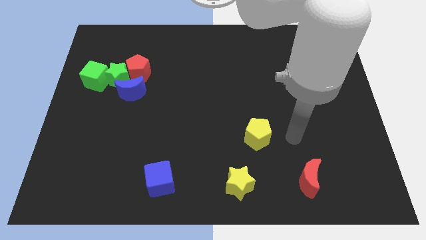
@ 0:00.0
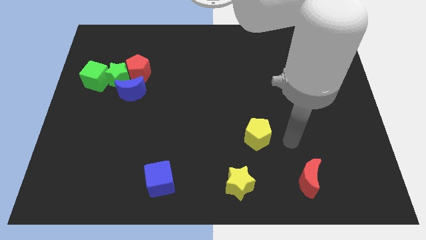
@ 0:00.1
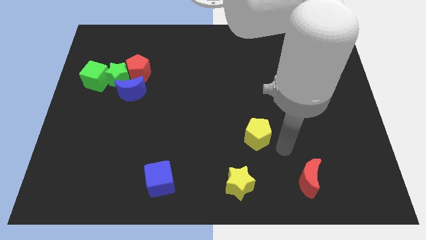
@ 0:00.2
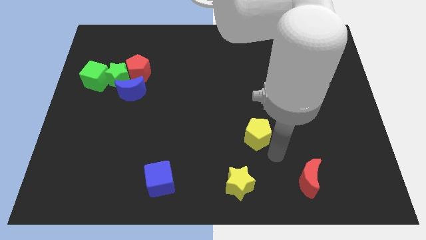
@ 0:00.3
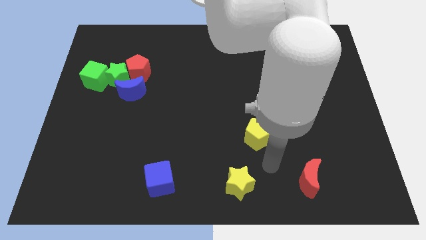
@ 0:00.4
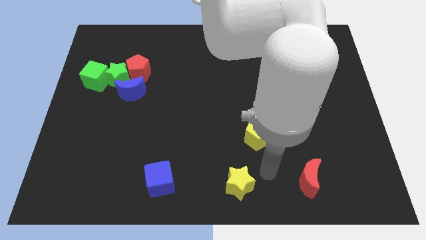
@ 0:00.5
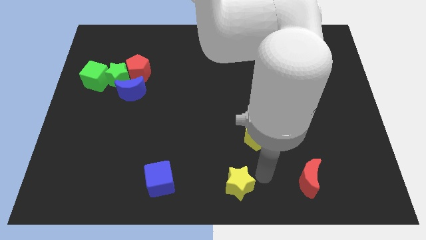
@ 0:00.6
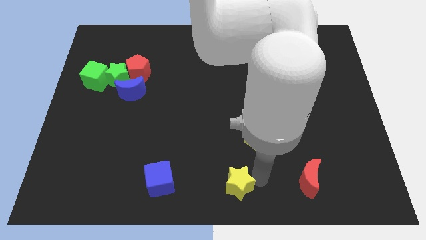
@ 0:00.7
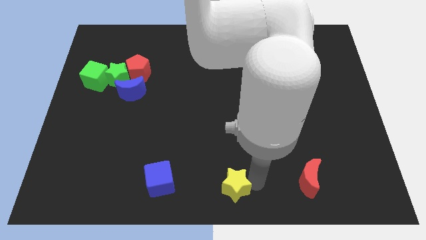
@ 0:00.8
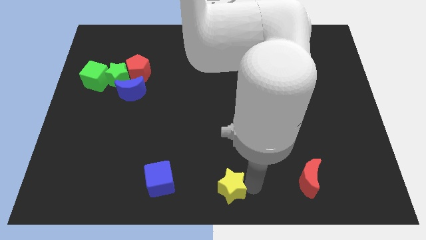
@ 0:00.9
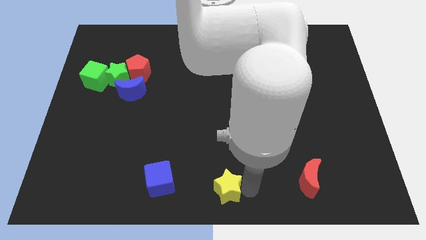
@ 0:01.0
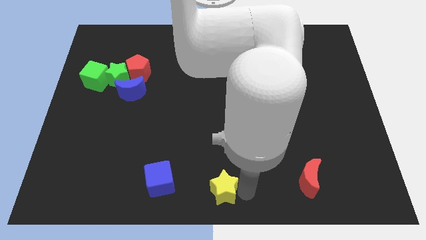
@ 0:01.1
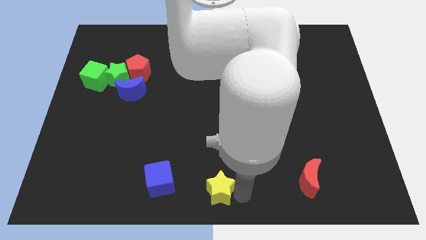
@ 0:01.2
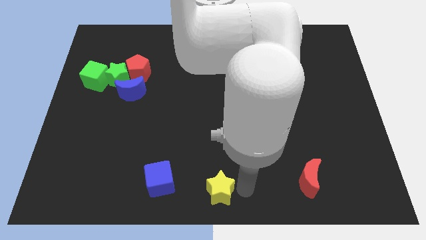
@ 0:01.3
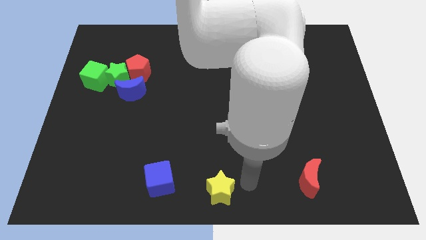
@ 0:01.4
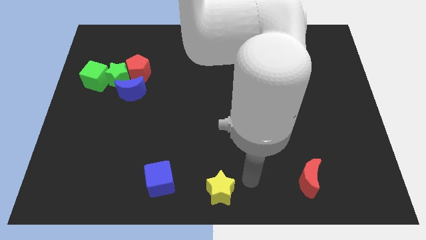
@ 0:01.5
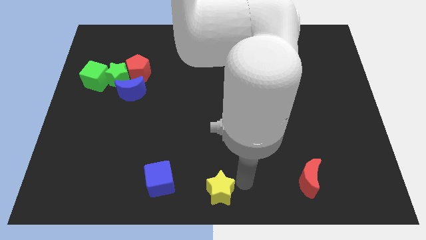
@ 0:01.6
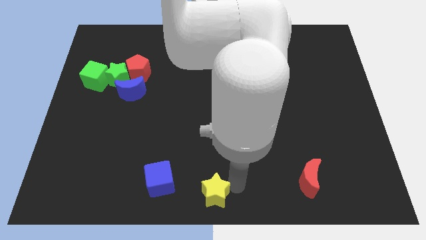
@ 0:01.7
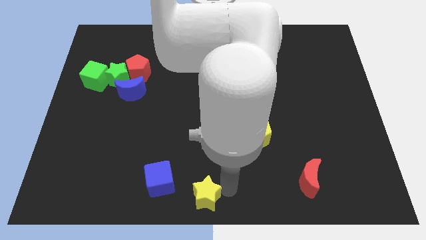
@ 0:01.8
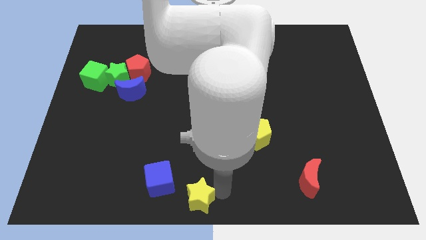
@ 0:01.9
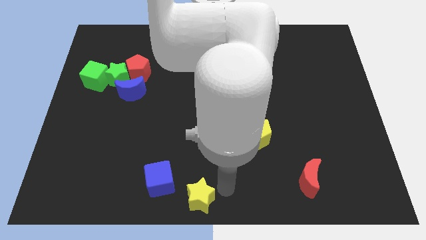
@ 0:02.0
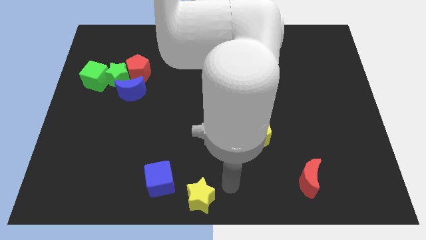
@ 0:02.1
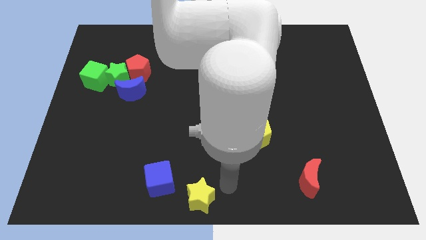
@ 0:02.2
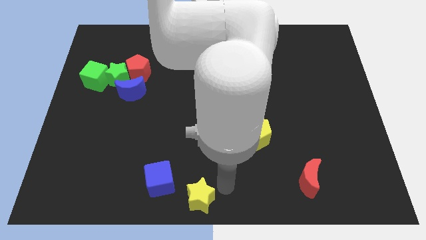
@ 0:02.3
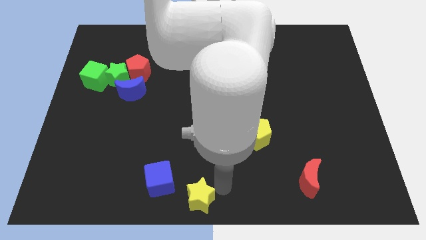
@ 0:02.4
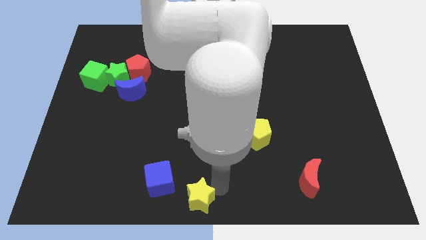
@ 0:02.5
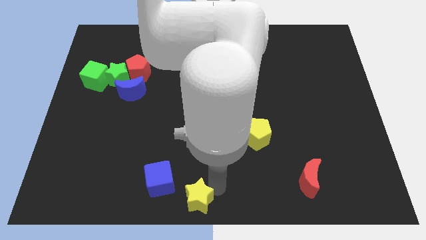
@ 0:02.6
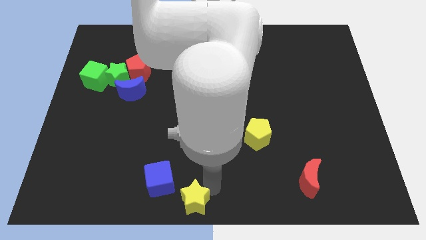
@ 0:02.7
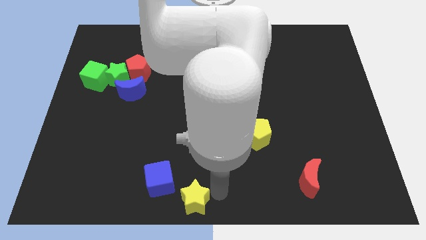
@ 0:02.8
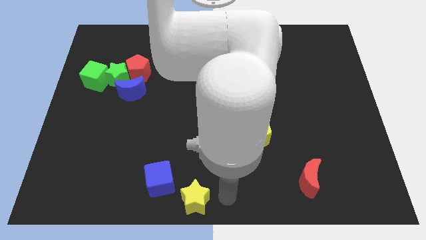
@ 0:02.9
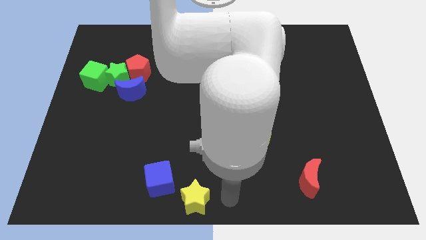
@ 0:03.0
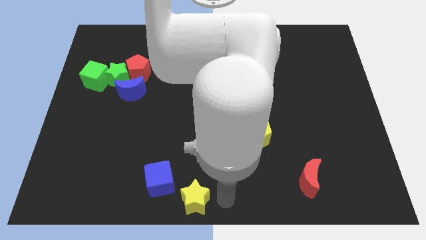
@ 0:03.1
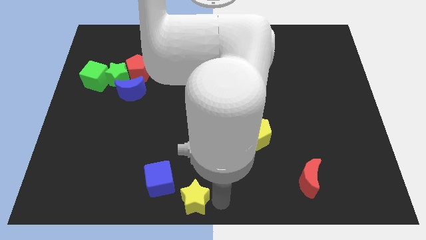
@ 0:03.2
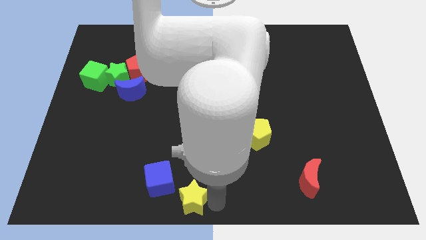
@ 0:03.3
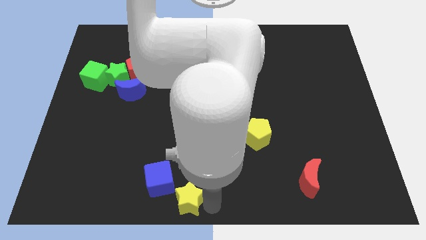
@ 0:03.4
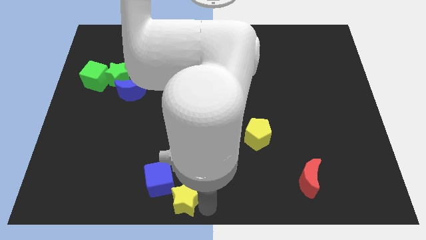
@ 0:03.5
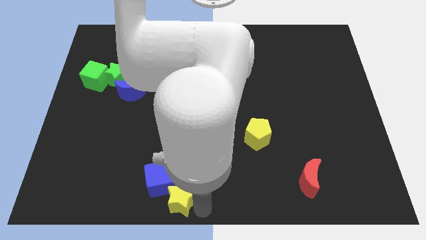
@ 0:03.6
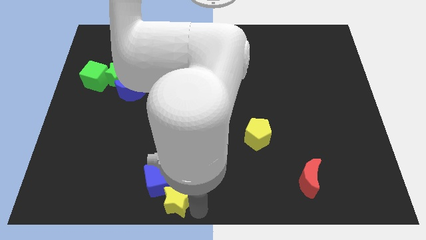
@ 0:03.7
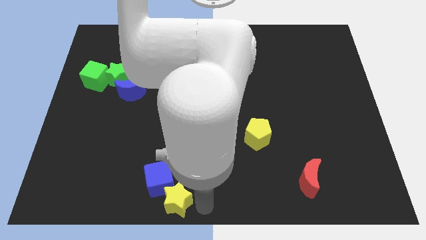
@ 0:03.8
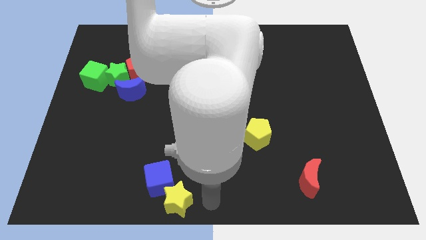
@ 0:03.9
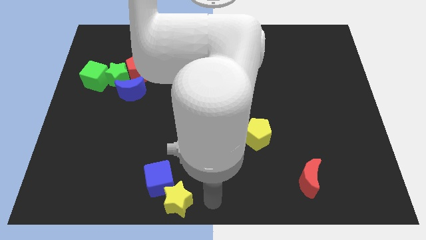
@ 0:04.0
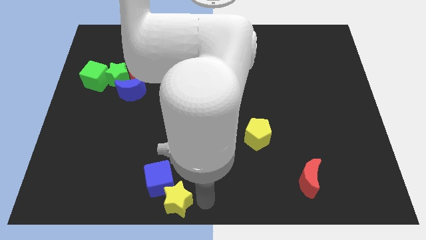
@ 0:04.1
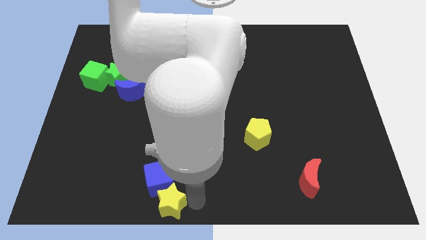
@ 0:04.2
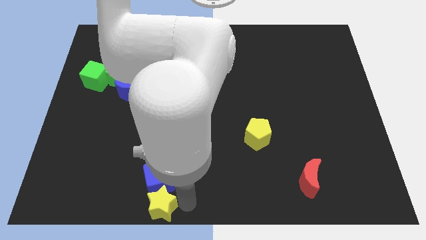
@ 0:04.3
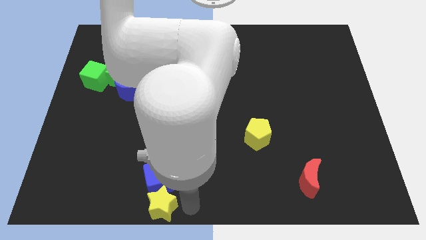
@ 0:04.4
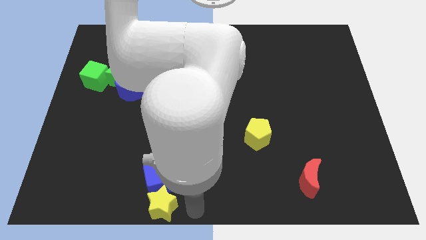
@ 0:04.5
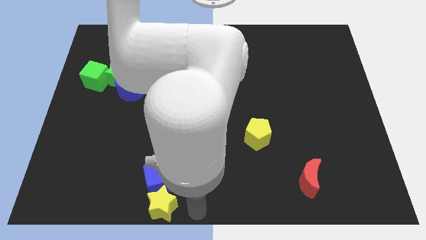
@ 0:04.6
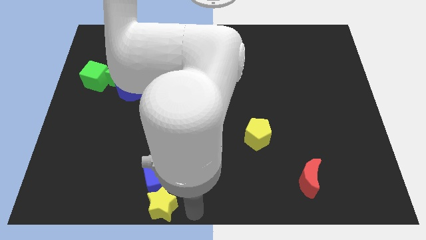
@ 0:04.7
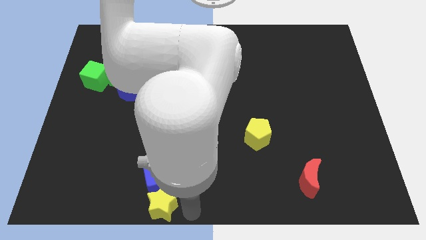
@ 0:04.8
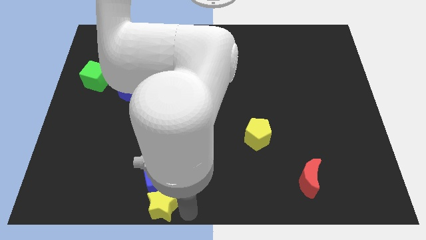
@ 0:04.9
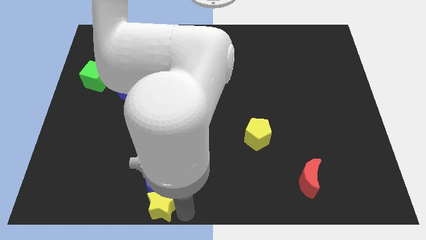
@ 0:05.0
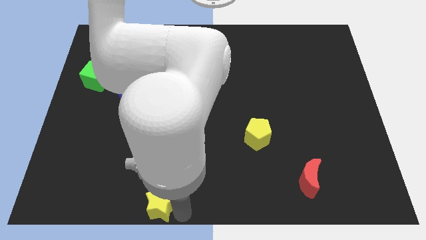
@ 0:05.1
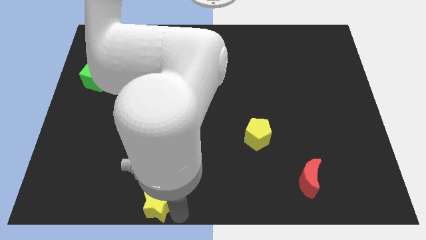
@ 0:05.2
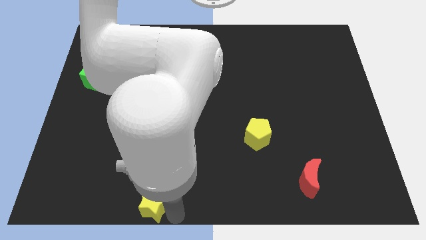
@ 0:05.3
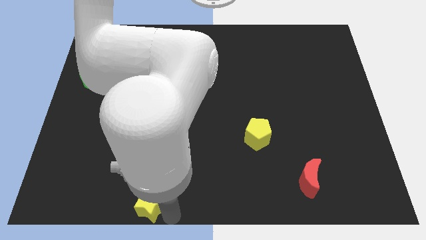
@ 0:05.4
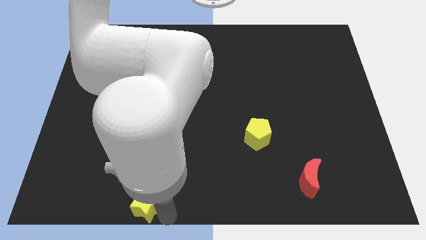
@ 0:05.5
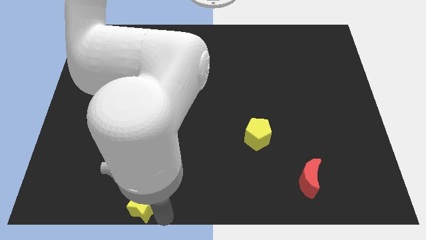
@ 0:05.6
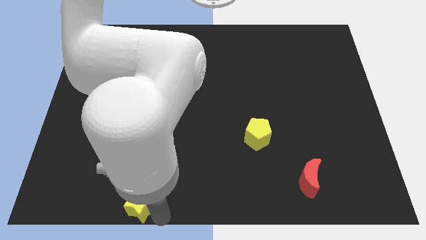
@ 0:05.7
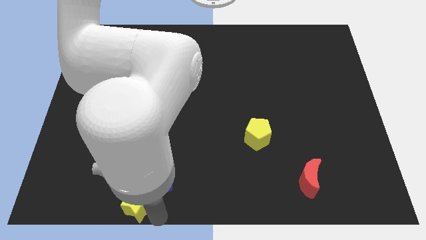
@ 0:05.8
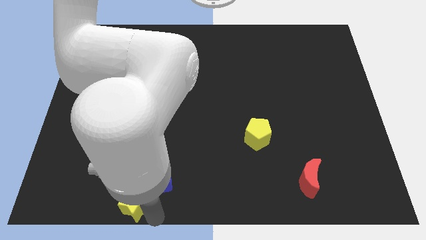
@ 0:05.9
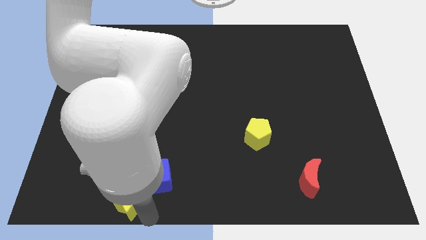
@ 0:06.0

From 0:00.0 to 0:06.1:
slide the yellow star to the left

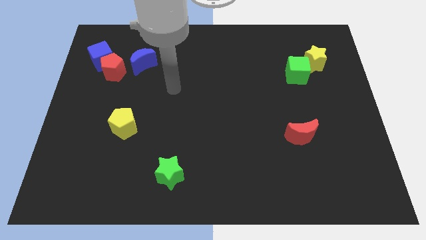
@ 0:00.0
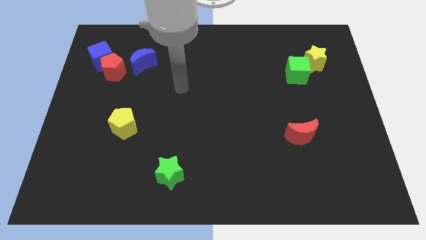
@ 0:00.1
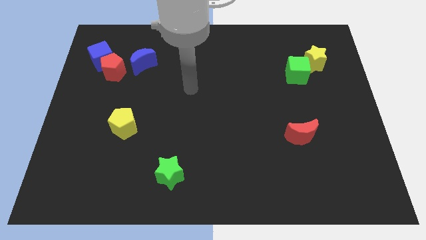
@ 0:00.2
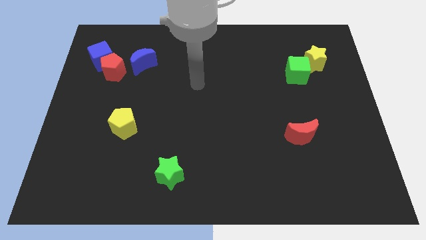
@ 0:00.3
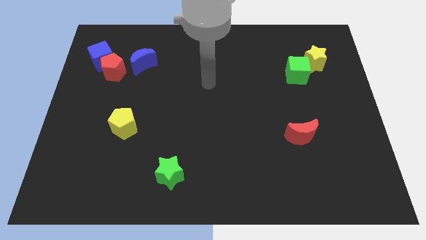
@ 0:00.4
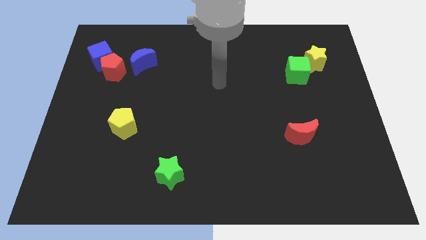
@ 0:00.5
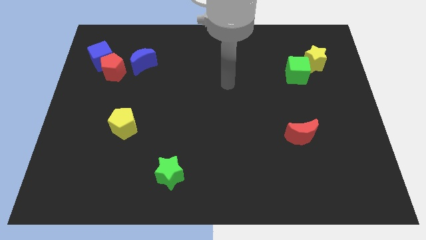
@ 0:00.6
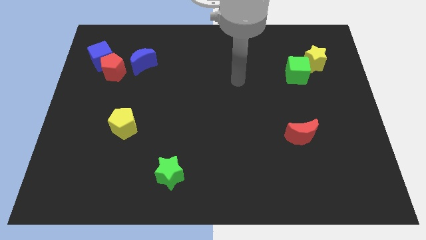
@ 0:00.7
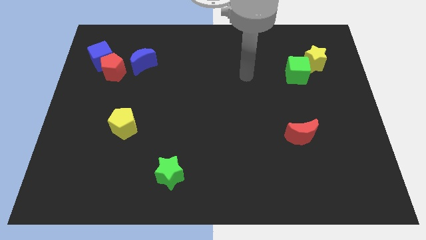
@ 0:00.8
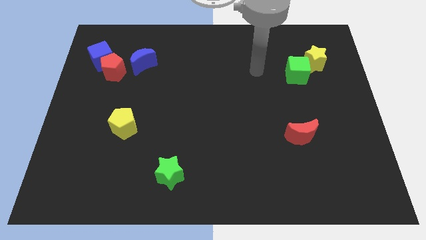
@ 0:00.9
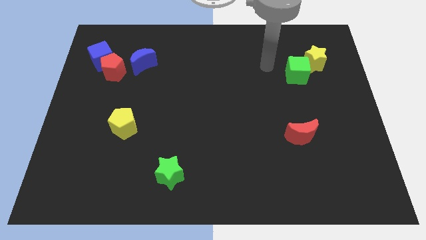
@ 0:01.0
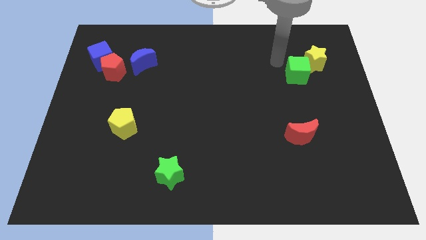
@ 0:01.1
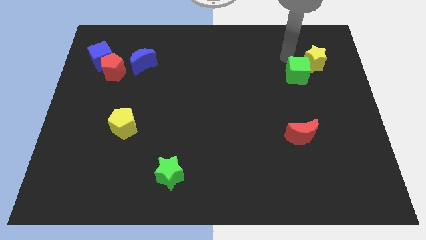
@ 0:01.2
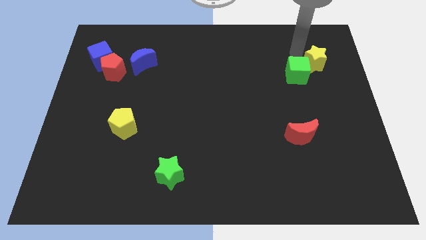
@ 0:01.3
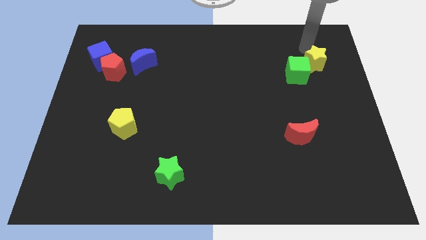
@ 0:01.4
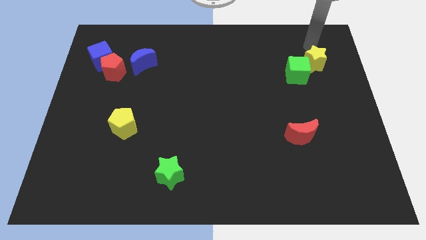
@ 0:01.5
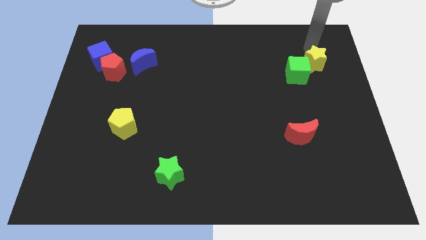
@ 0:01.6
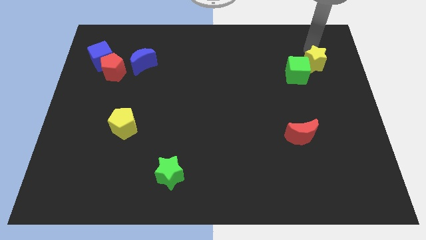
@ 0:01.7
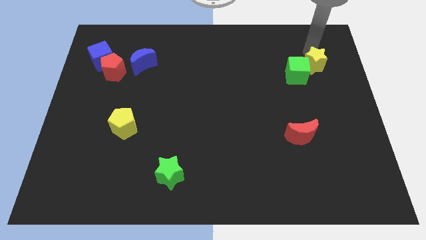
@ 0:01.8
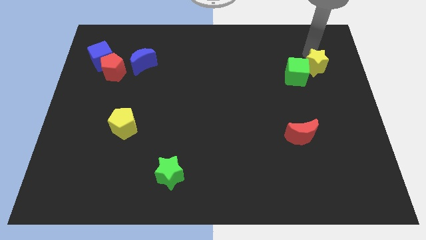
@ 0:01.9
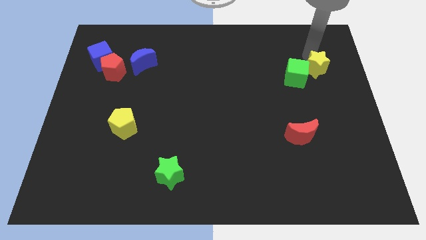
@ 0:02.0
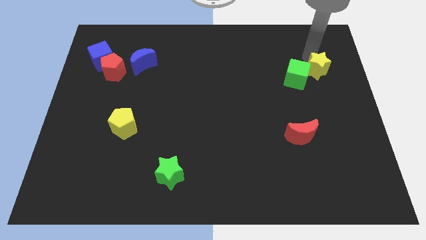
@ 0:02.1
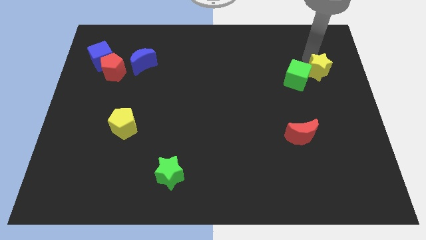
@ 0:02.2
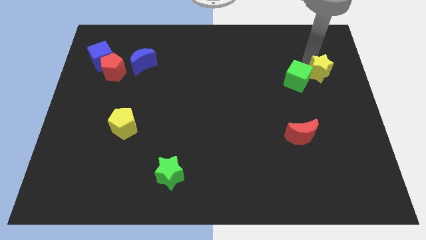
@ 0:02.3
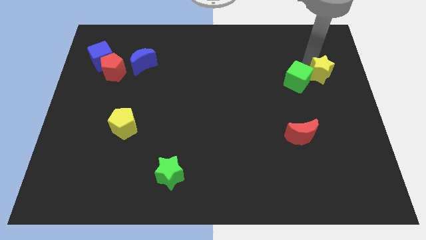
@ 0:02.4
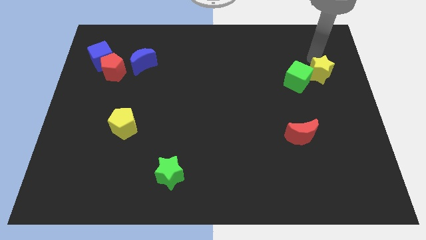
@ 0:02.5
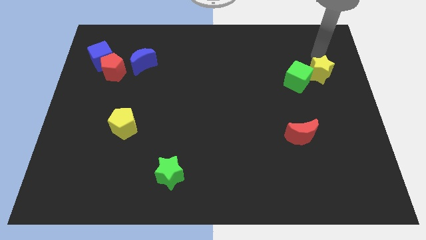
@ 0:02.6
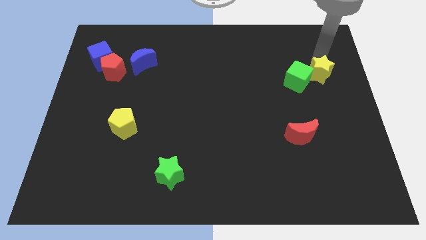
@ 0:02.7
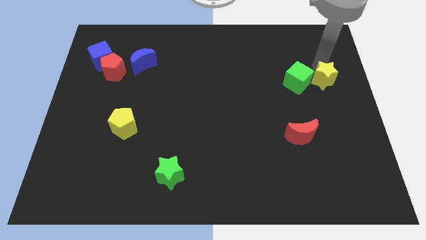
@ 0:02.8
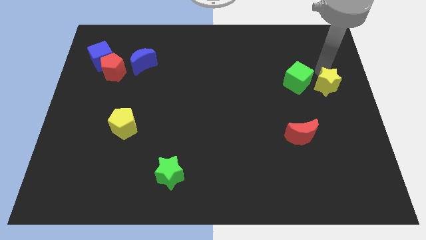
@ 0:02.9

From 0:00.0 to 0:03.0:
push the yellow star slightly down
